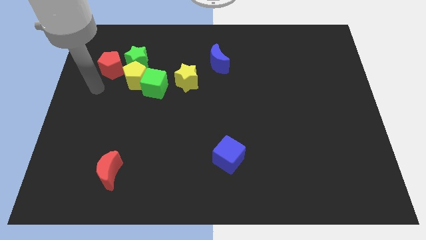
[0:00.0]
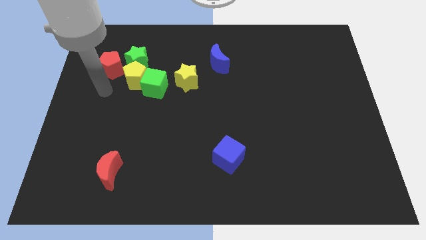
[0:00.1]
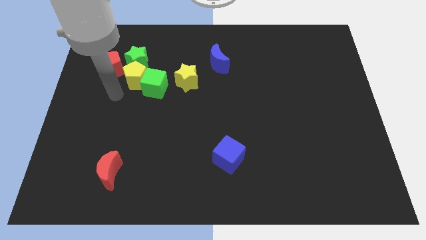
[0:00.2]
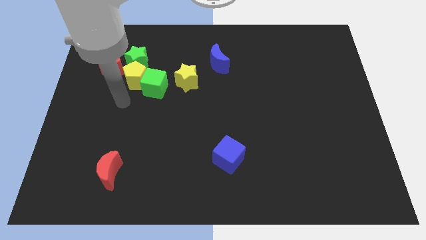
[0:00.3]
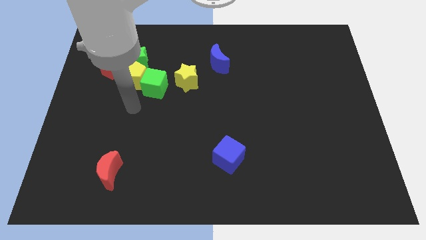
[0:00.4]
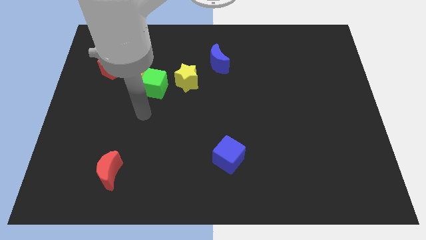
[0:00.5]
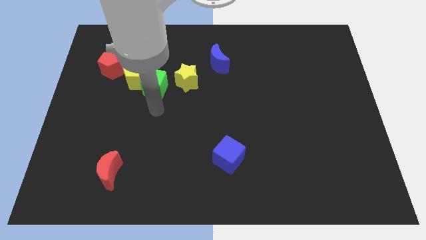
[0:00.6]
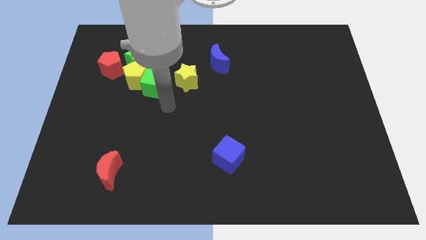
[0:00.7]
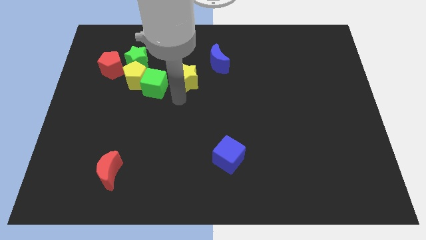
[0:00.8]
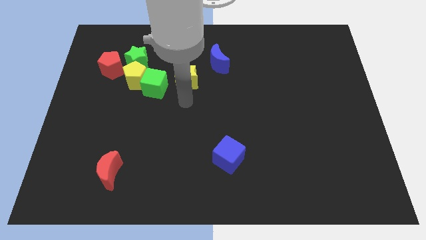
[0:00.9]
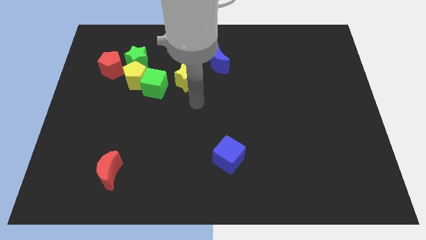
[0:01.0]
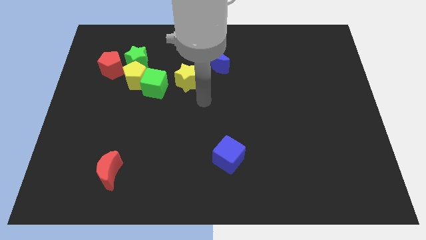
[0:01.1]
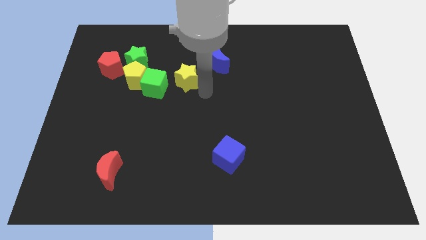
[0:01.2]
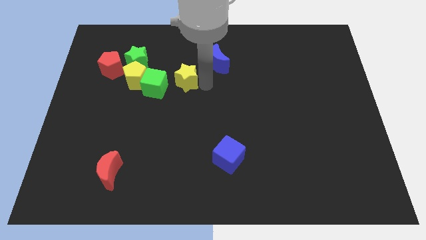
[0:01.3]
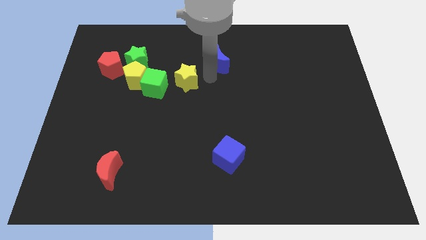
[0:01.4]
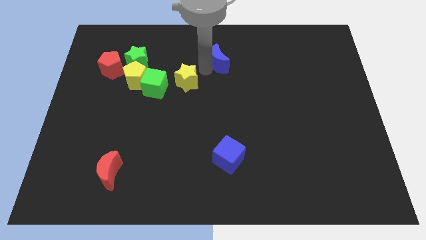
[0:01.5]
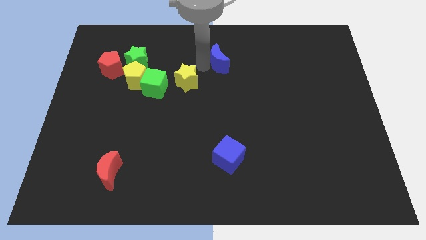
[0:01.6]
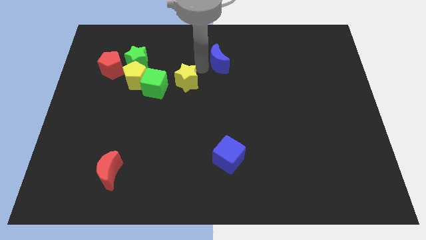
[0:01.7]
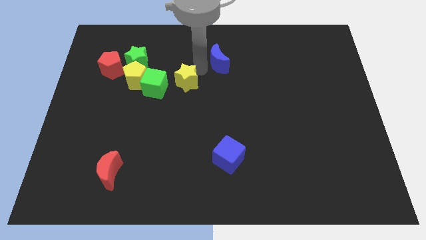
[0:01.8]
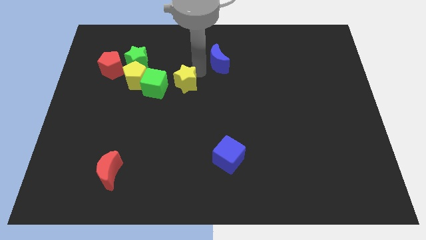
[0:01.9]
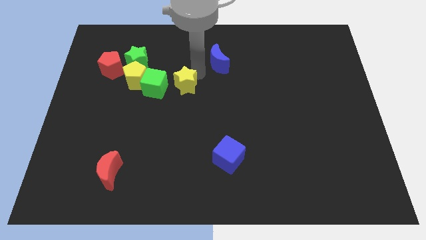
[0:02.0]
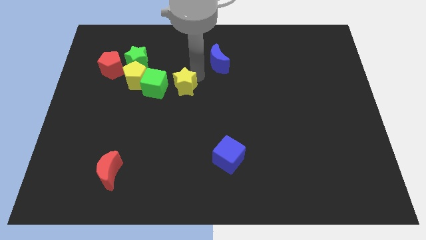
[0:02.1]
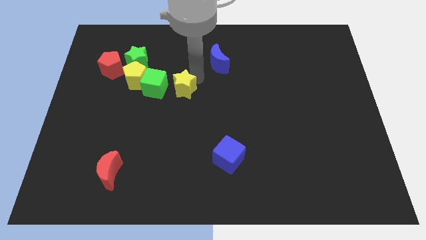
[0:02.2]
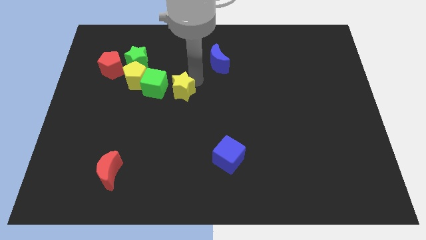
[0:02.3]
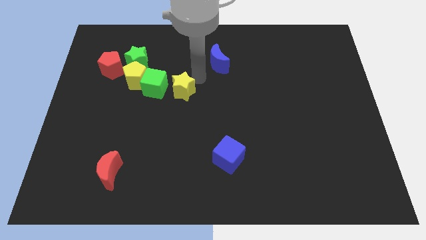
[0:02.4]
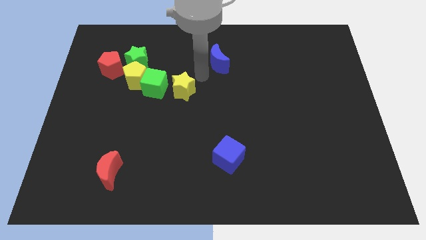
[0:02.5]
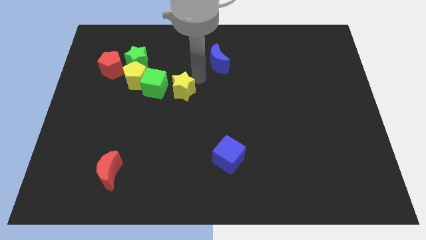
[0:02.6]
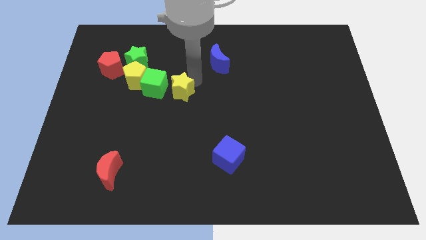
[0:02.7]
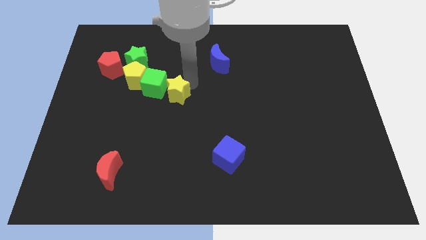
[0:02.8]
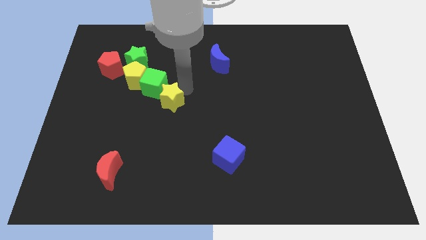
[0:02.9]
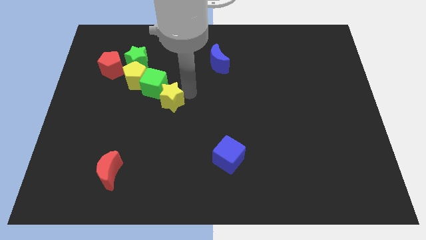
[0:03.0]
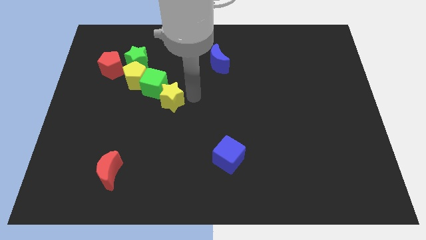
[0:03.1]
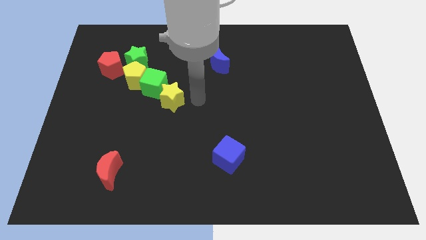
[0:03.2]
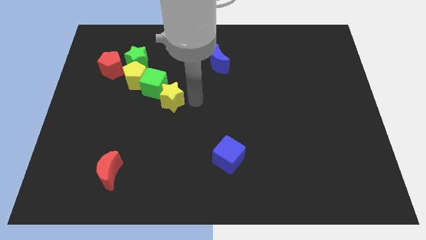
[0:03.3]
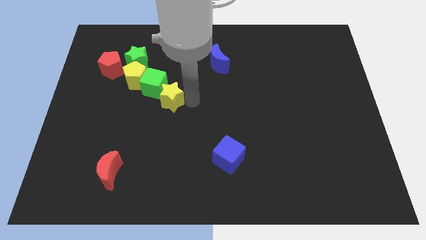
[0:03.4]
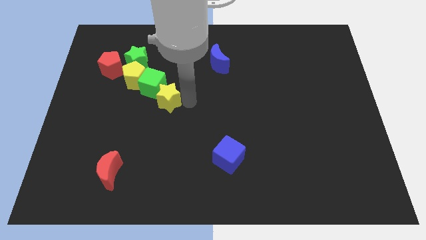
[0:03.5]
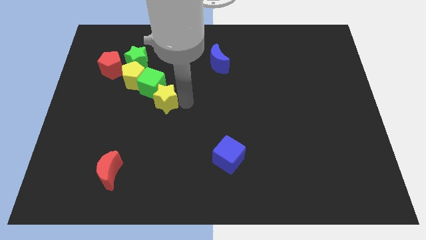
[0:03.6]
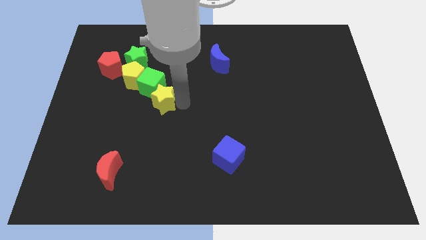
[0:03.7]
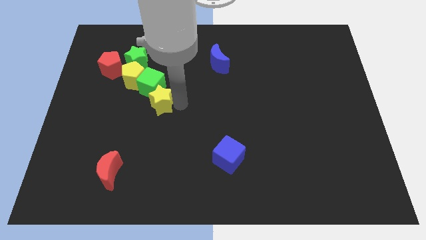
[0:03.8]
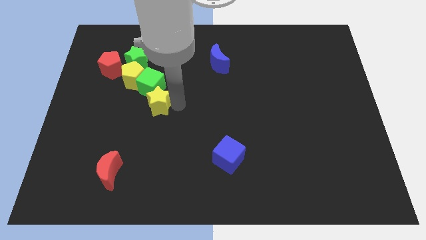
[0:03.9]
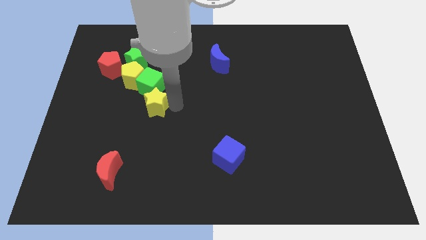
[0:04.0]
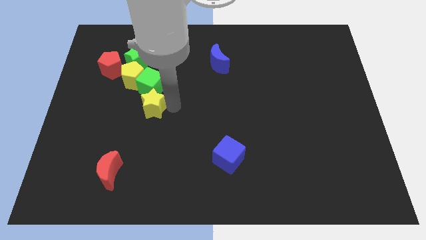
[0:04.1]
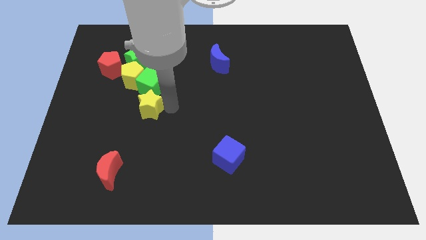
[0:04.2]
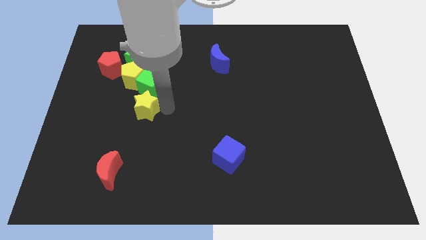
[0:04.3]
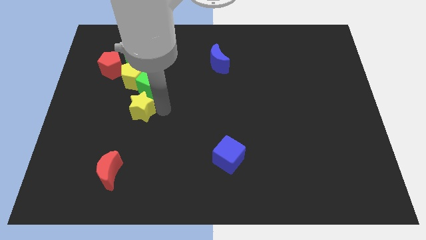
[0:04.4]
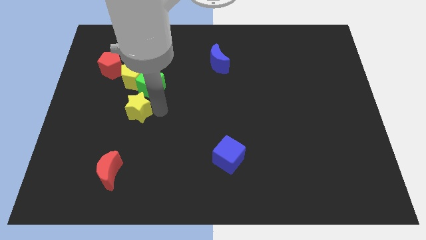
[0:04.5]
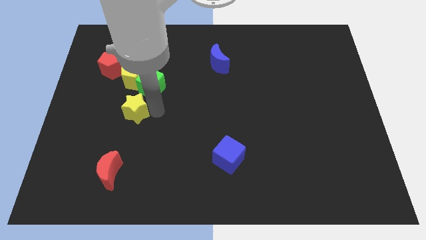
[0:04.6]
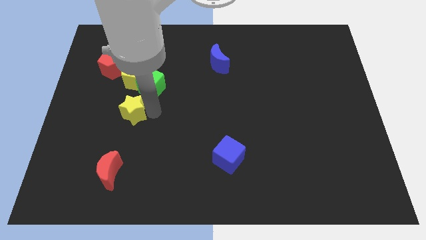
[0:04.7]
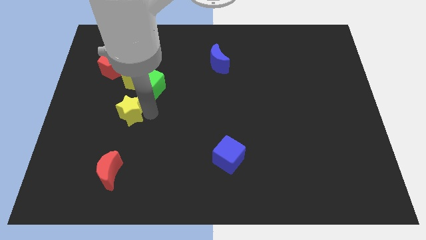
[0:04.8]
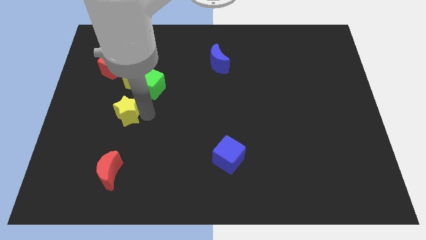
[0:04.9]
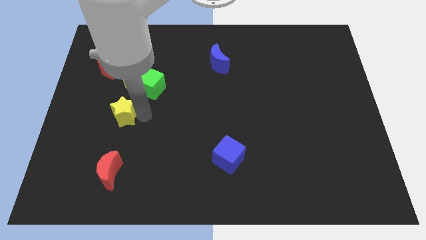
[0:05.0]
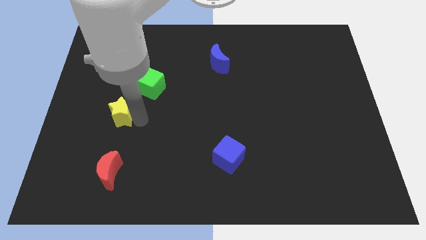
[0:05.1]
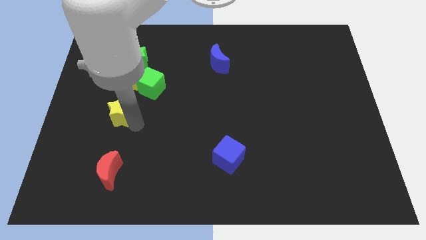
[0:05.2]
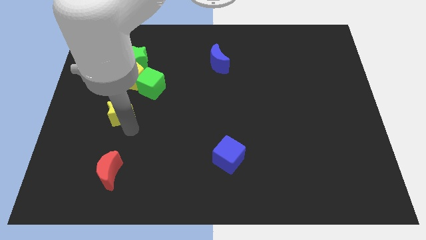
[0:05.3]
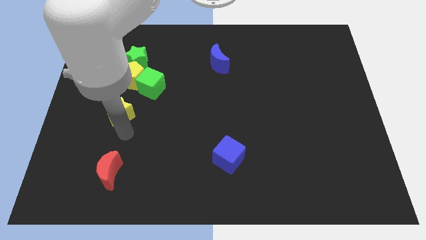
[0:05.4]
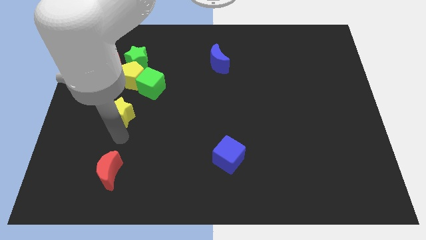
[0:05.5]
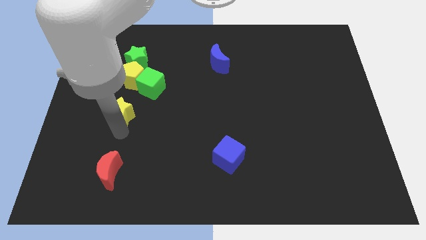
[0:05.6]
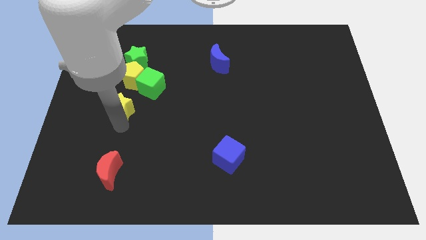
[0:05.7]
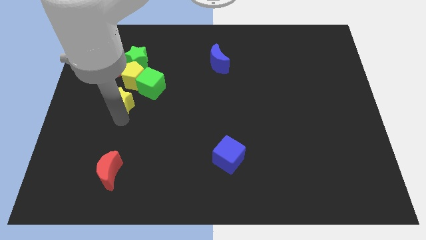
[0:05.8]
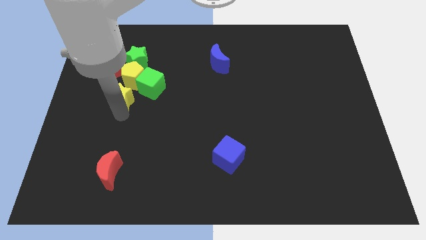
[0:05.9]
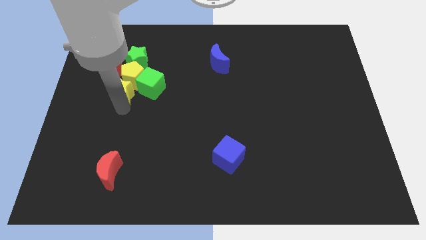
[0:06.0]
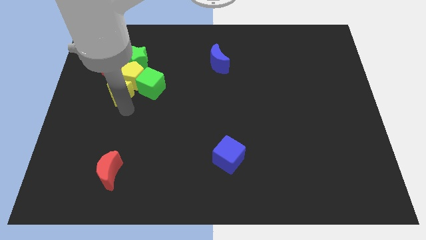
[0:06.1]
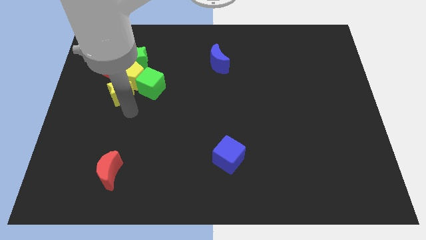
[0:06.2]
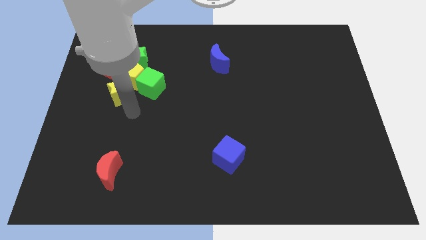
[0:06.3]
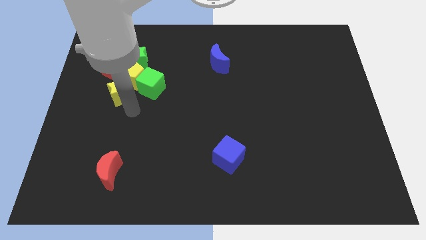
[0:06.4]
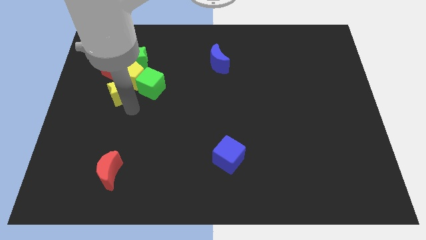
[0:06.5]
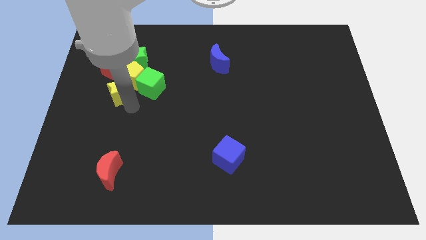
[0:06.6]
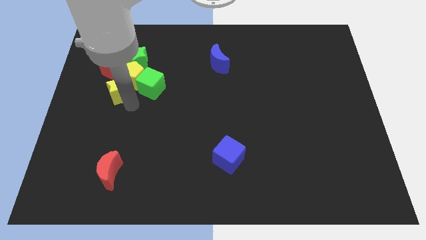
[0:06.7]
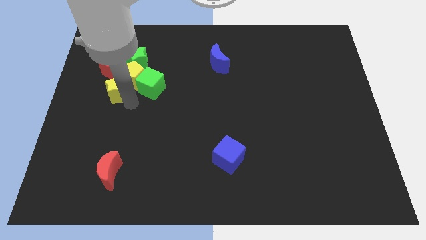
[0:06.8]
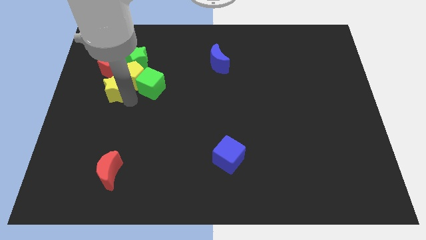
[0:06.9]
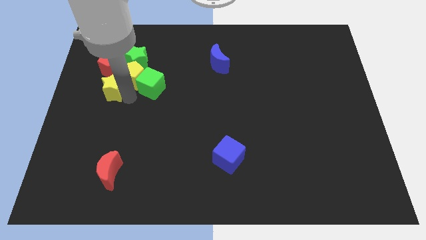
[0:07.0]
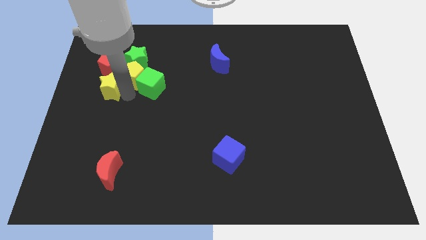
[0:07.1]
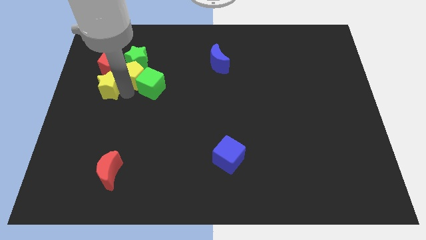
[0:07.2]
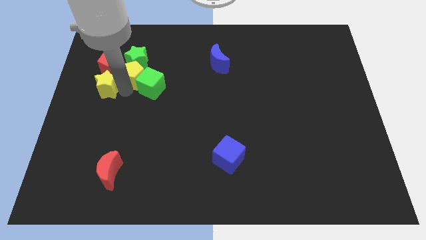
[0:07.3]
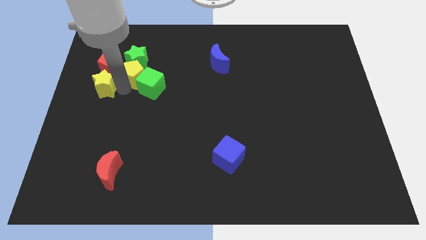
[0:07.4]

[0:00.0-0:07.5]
slide the yellow star close to the red pentagon
